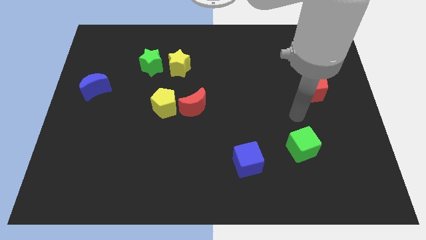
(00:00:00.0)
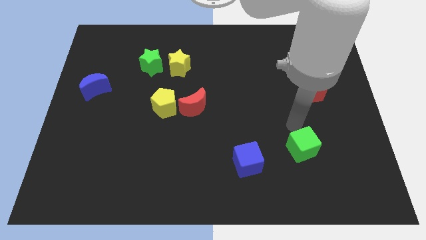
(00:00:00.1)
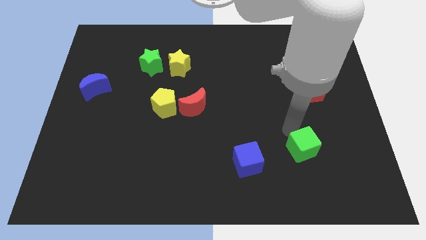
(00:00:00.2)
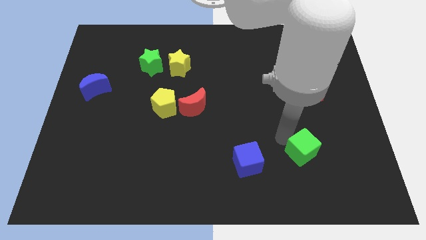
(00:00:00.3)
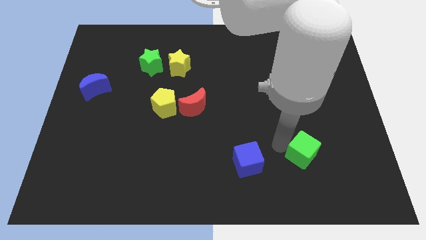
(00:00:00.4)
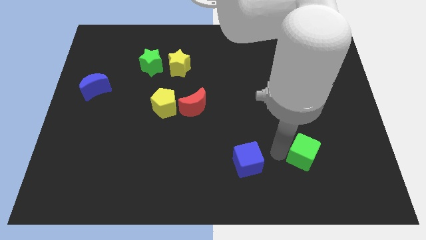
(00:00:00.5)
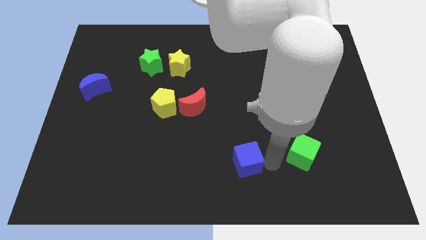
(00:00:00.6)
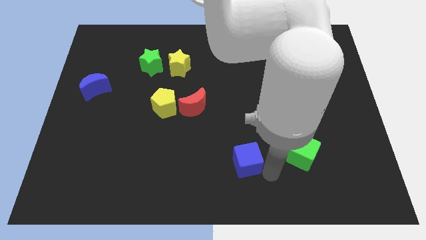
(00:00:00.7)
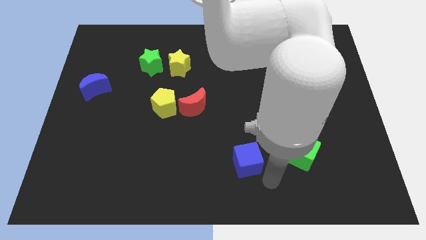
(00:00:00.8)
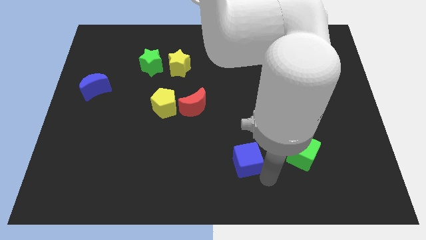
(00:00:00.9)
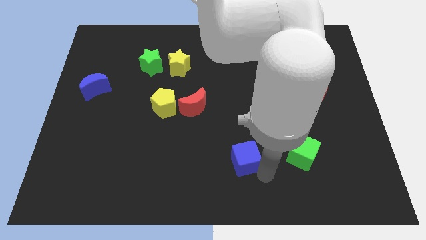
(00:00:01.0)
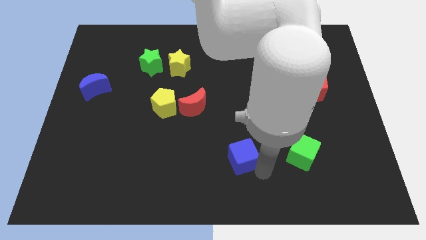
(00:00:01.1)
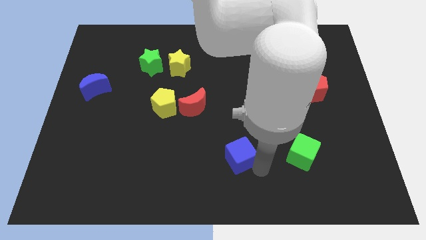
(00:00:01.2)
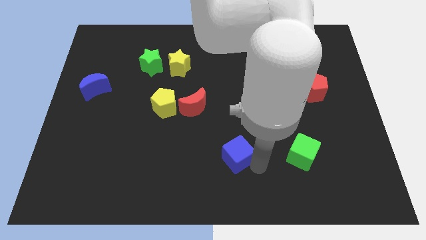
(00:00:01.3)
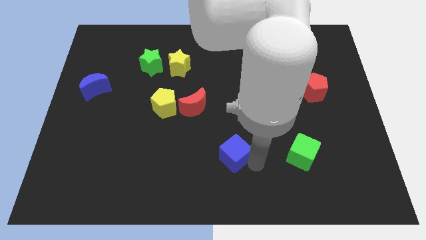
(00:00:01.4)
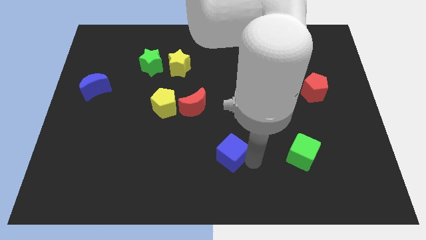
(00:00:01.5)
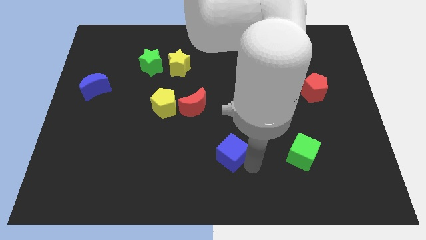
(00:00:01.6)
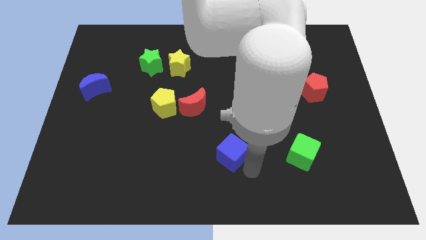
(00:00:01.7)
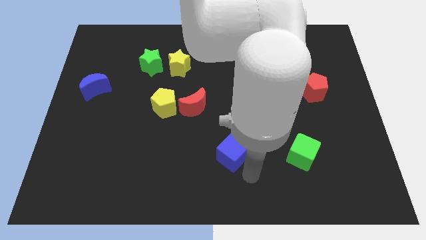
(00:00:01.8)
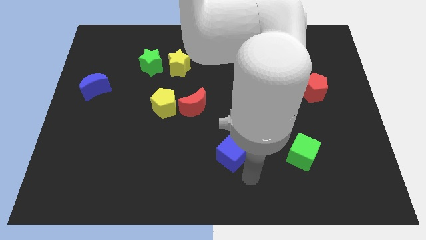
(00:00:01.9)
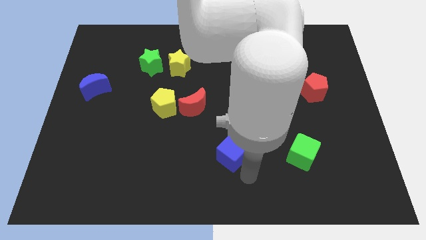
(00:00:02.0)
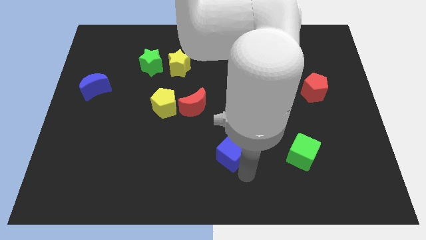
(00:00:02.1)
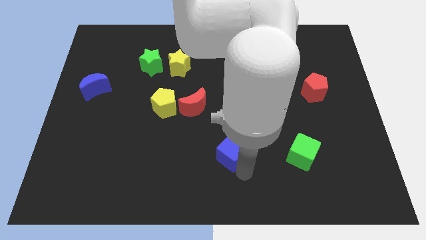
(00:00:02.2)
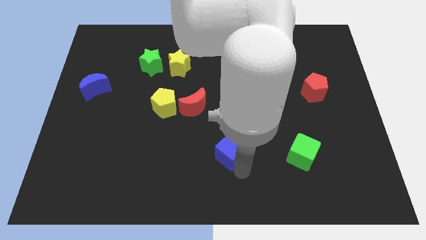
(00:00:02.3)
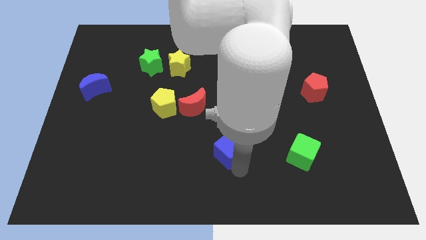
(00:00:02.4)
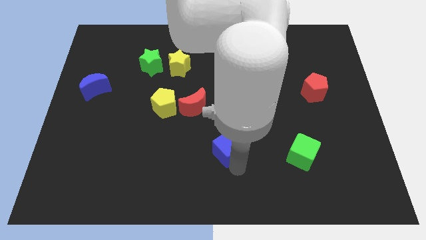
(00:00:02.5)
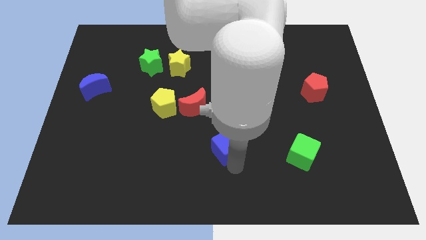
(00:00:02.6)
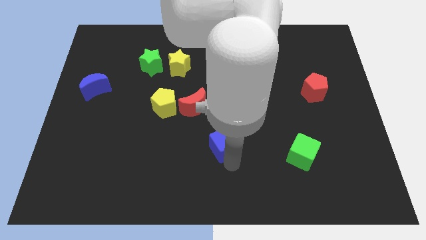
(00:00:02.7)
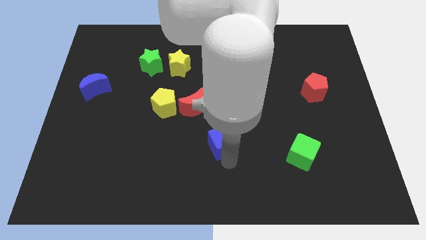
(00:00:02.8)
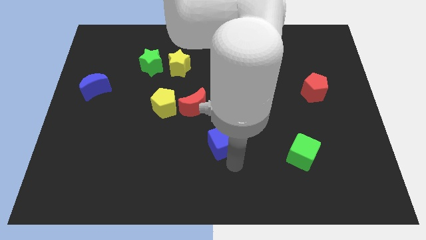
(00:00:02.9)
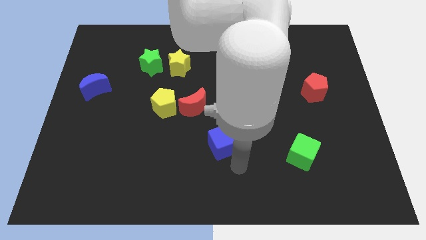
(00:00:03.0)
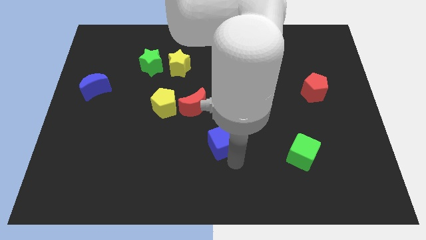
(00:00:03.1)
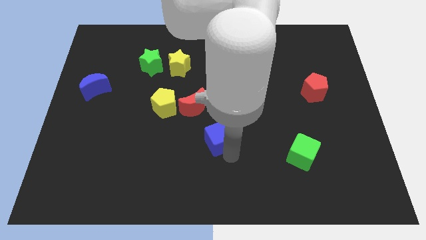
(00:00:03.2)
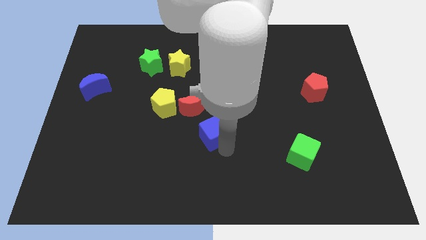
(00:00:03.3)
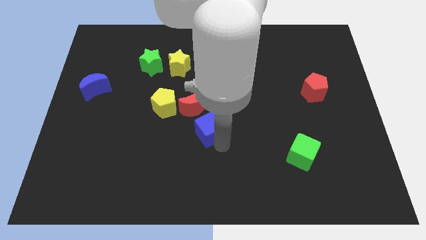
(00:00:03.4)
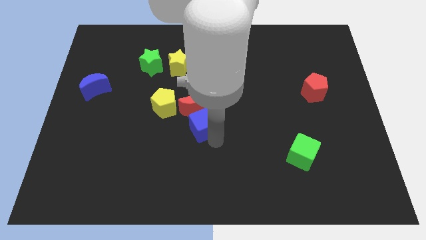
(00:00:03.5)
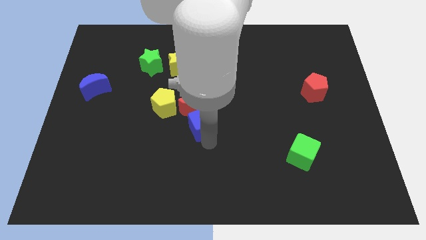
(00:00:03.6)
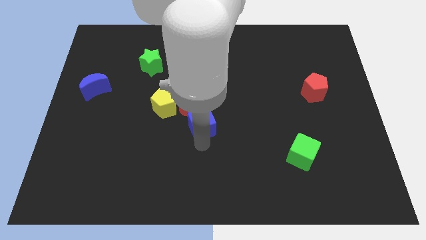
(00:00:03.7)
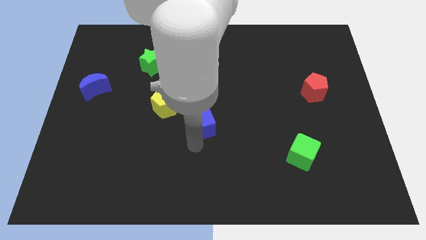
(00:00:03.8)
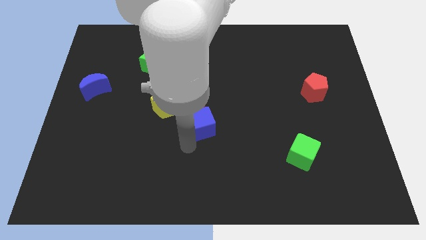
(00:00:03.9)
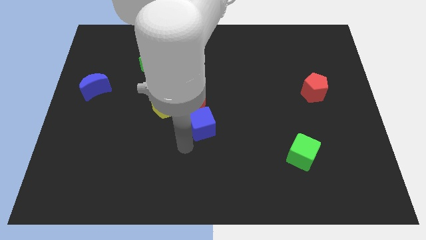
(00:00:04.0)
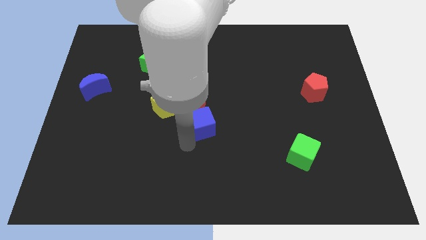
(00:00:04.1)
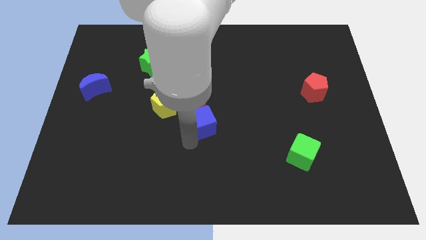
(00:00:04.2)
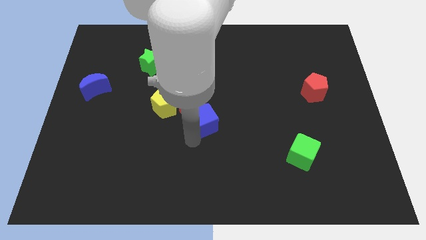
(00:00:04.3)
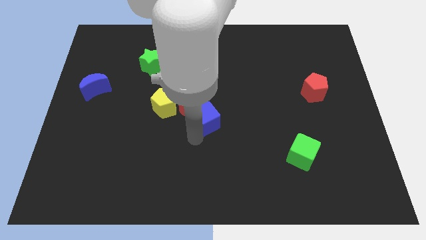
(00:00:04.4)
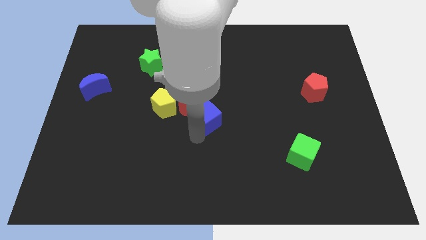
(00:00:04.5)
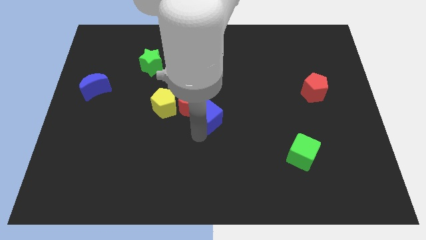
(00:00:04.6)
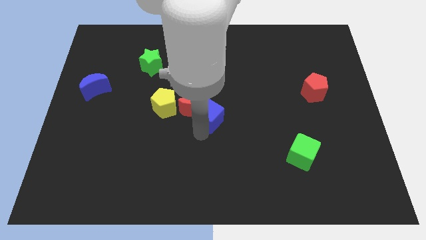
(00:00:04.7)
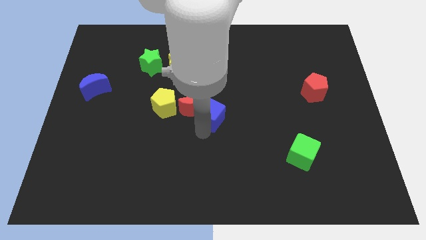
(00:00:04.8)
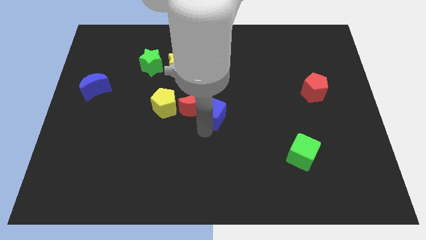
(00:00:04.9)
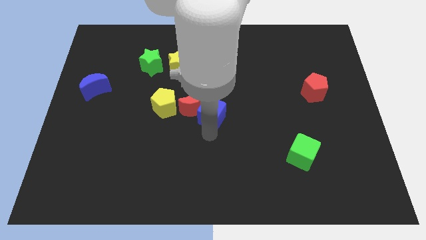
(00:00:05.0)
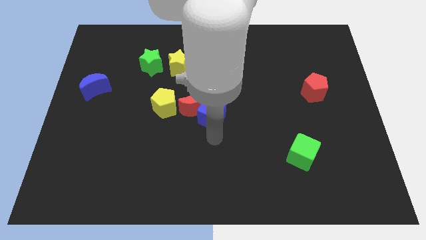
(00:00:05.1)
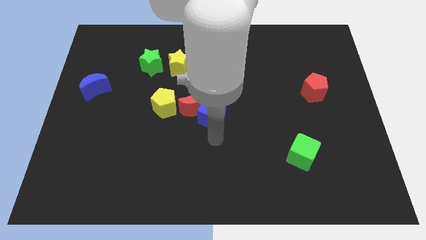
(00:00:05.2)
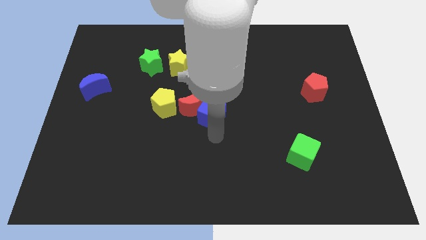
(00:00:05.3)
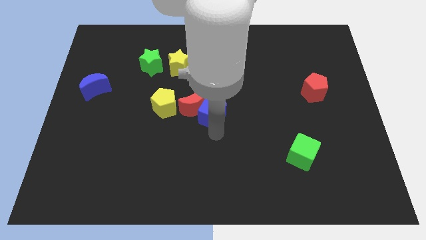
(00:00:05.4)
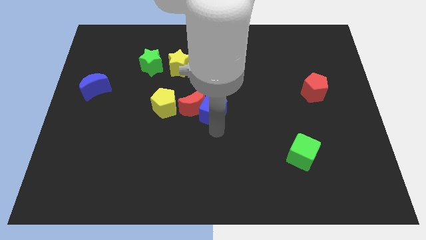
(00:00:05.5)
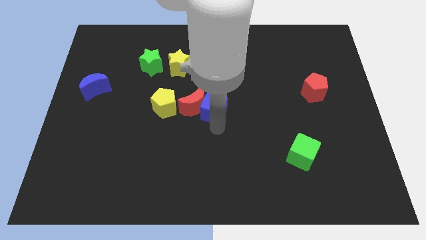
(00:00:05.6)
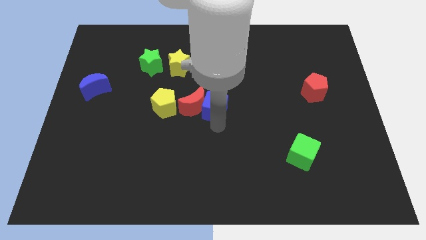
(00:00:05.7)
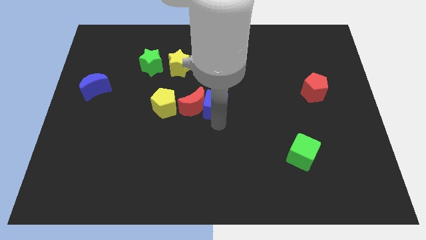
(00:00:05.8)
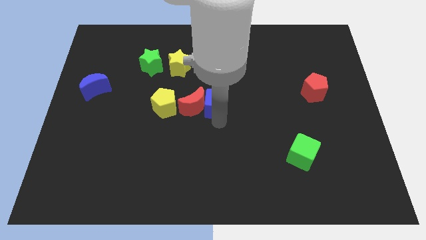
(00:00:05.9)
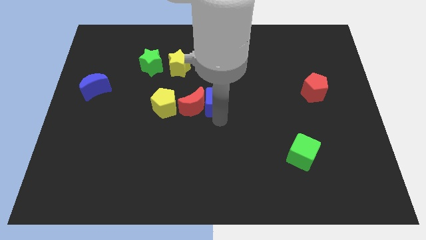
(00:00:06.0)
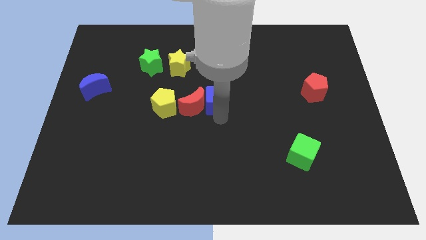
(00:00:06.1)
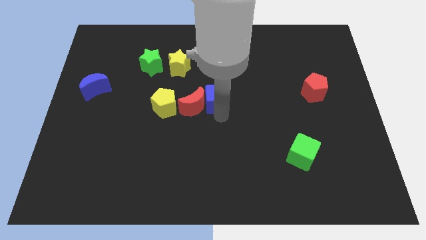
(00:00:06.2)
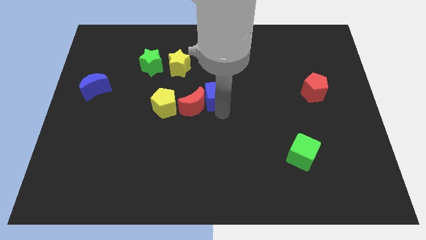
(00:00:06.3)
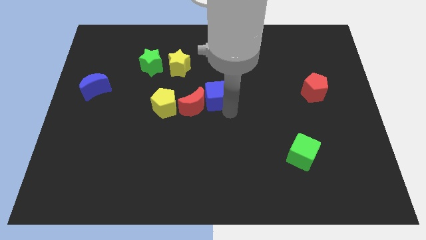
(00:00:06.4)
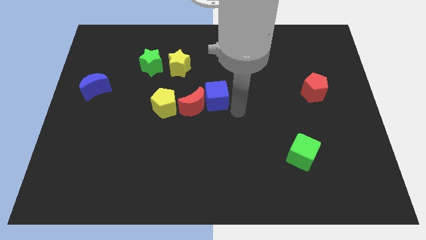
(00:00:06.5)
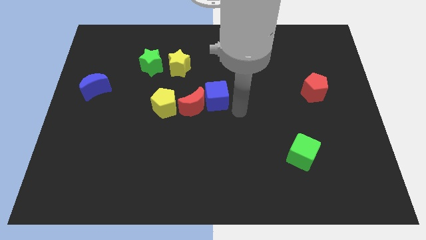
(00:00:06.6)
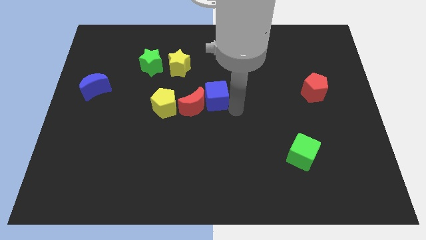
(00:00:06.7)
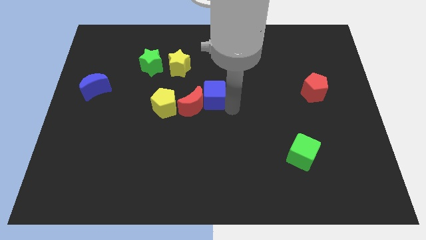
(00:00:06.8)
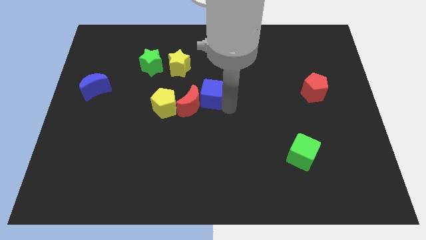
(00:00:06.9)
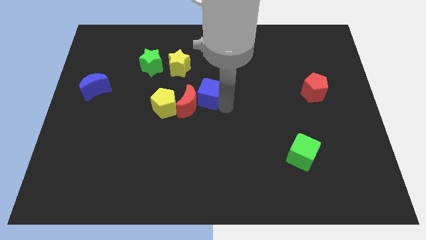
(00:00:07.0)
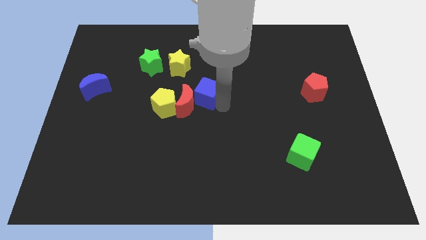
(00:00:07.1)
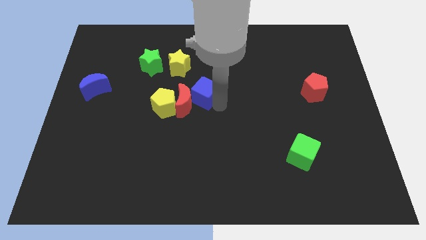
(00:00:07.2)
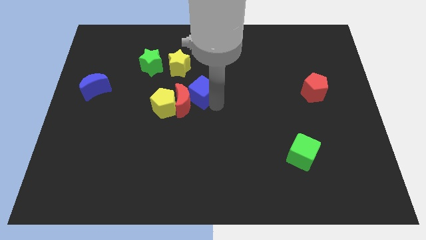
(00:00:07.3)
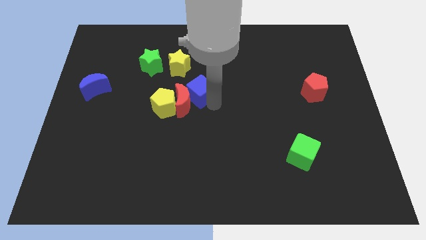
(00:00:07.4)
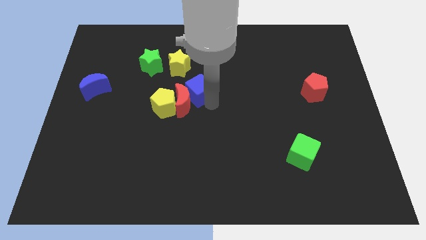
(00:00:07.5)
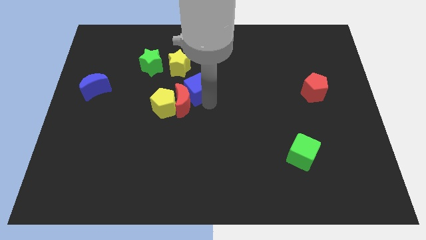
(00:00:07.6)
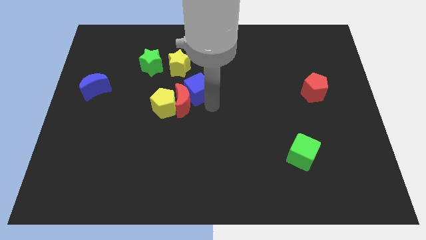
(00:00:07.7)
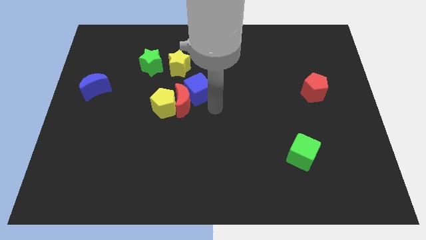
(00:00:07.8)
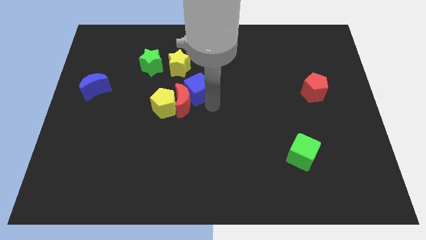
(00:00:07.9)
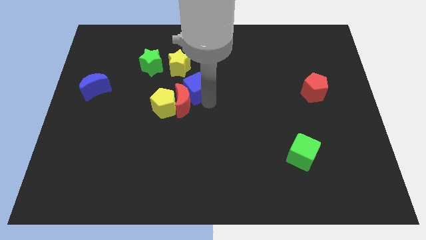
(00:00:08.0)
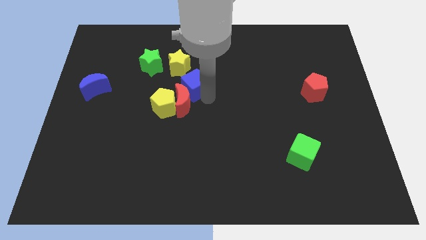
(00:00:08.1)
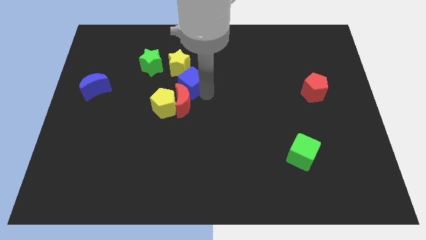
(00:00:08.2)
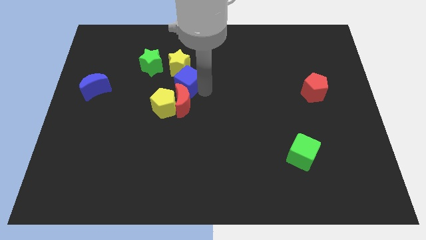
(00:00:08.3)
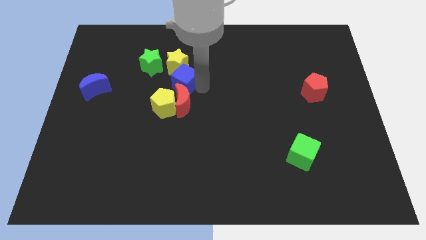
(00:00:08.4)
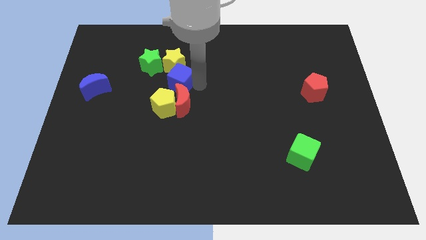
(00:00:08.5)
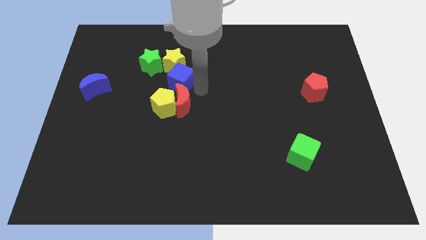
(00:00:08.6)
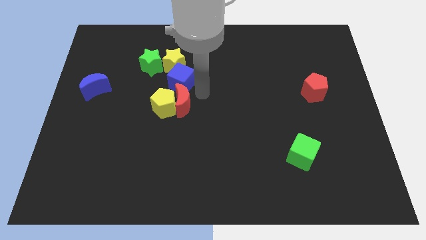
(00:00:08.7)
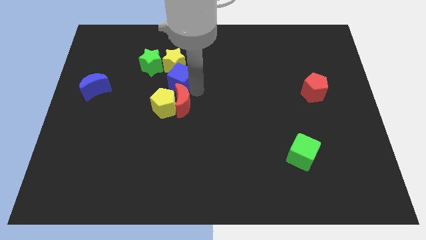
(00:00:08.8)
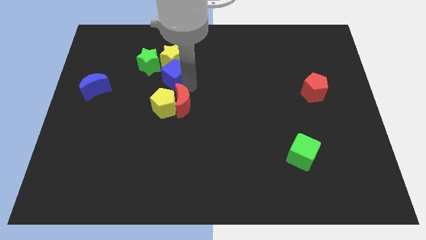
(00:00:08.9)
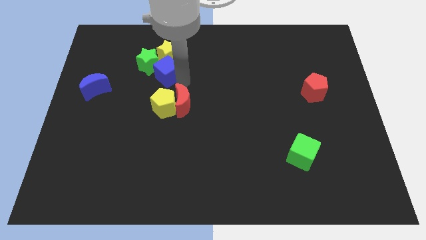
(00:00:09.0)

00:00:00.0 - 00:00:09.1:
move the blue cube towards the green star
